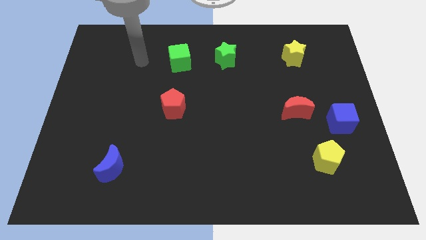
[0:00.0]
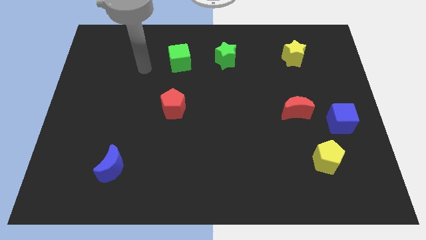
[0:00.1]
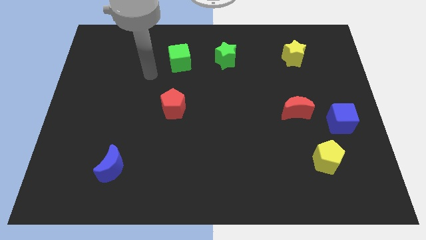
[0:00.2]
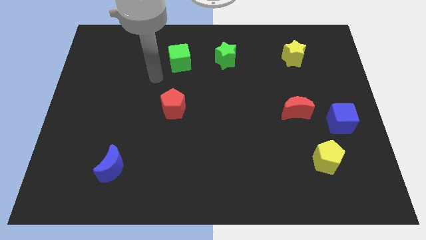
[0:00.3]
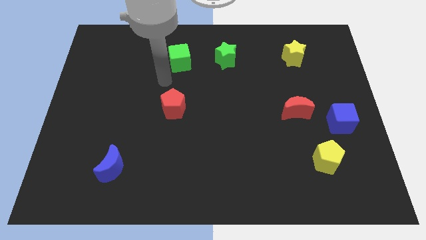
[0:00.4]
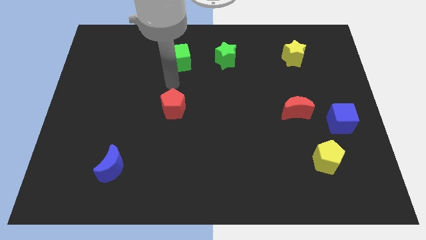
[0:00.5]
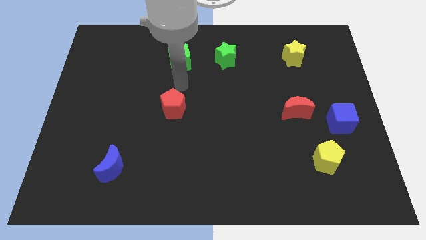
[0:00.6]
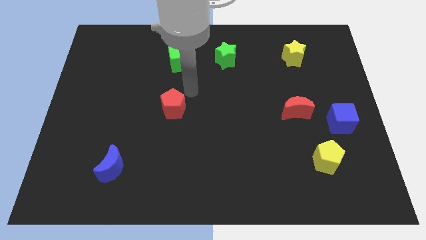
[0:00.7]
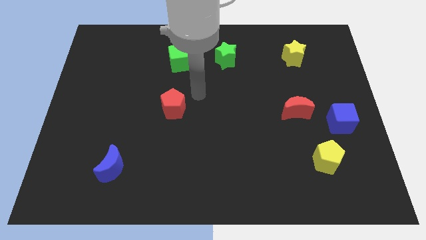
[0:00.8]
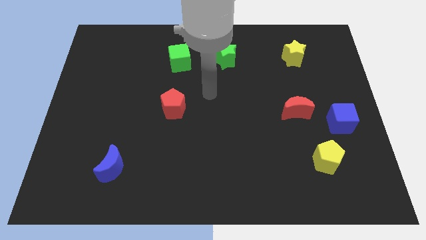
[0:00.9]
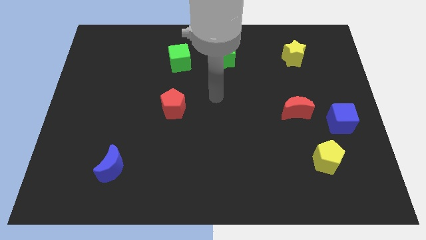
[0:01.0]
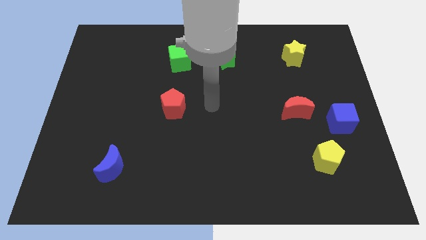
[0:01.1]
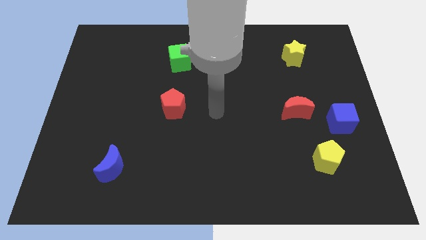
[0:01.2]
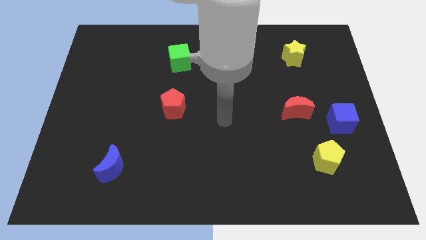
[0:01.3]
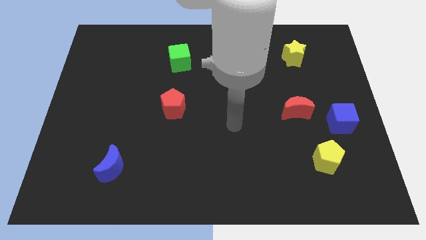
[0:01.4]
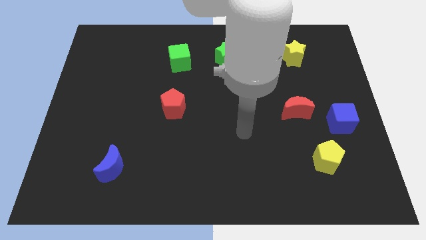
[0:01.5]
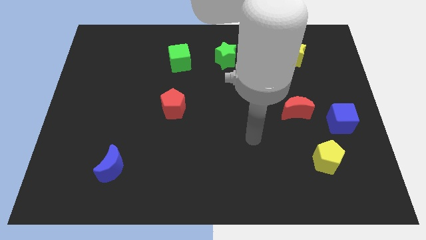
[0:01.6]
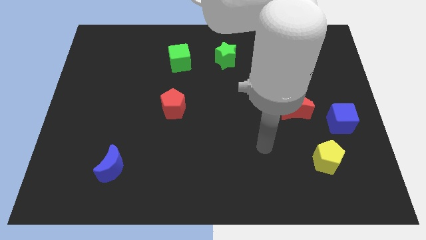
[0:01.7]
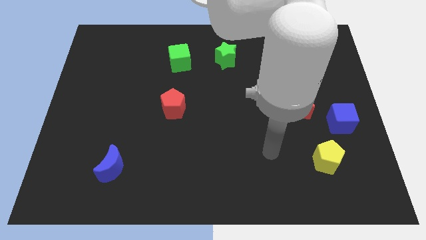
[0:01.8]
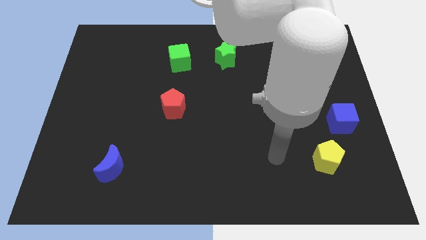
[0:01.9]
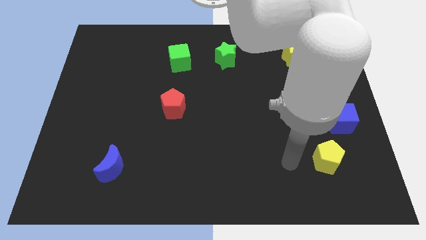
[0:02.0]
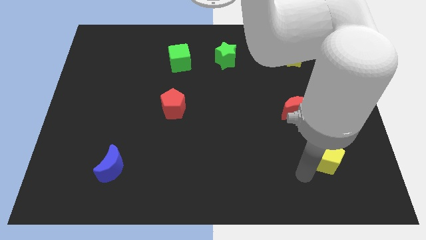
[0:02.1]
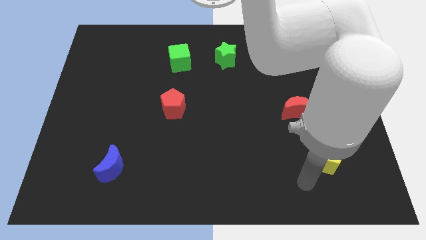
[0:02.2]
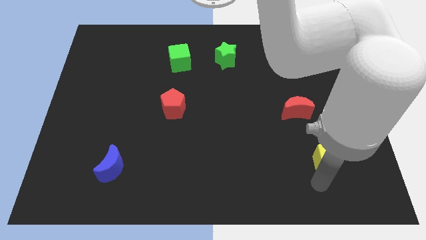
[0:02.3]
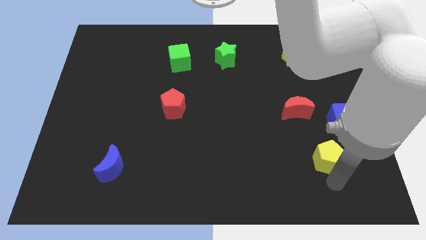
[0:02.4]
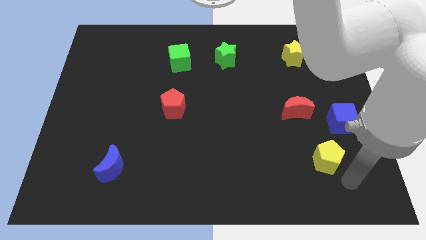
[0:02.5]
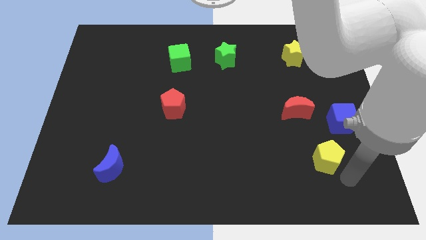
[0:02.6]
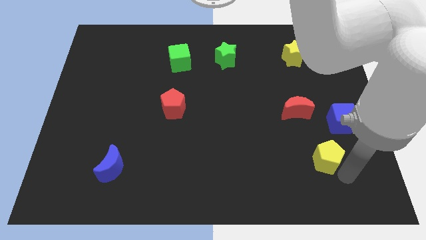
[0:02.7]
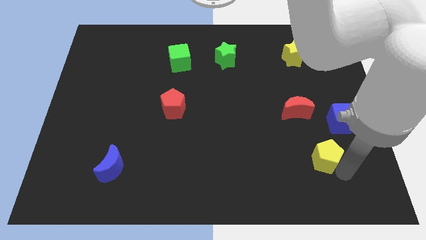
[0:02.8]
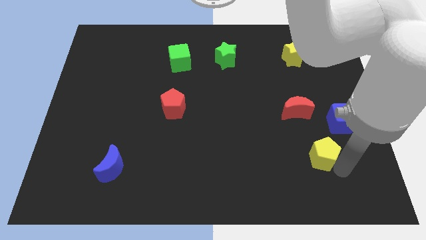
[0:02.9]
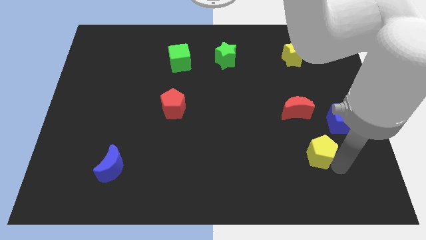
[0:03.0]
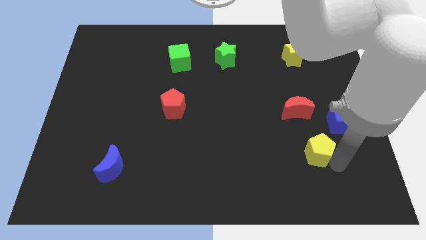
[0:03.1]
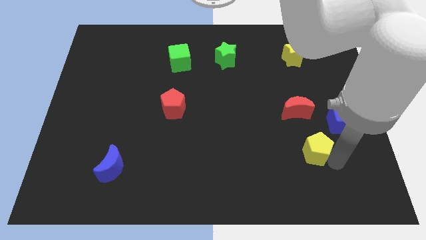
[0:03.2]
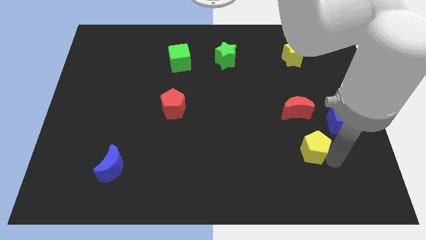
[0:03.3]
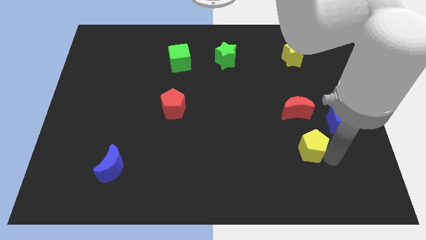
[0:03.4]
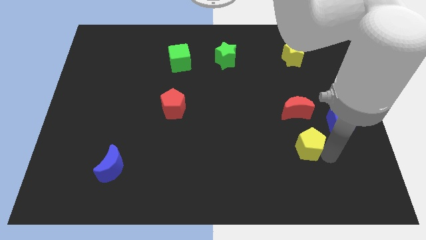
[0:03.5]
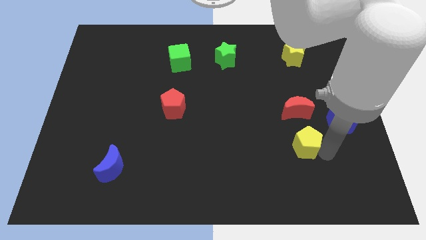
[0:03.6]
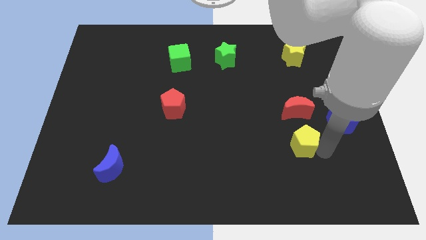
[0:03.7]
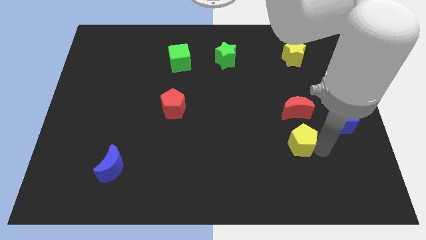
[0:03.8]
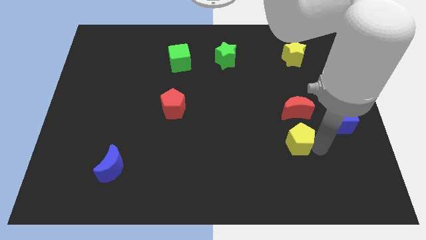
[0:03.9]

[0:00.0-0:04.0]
slide the yellow pentagon a little bit diagonally upwards and to the left

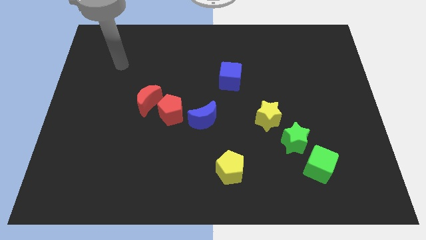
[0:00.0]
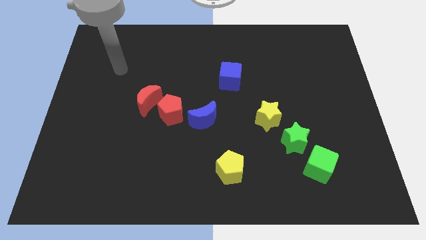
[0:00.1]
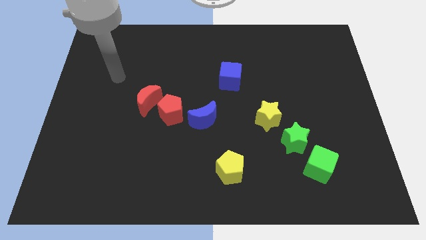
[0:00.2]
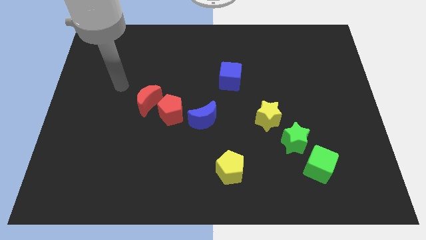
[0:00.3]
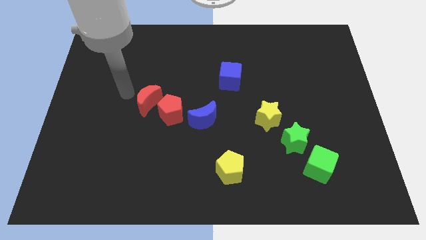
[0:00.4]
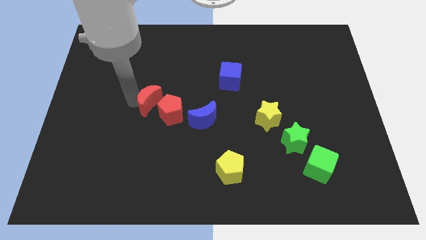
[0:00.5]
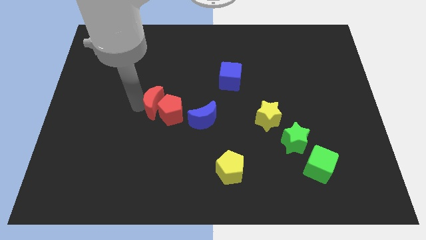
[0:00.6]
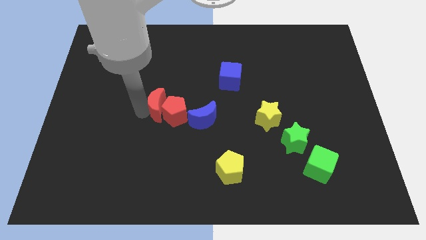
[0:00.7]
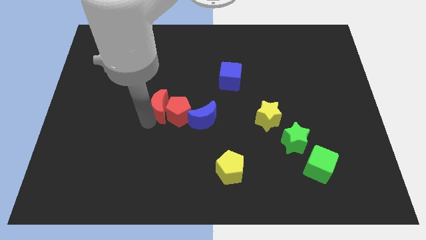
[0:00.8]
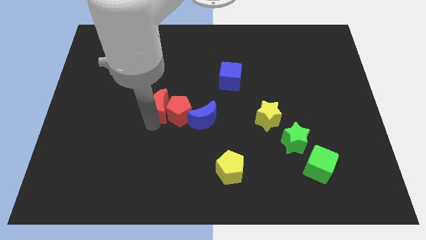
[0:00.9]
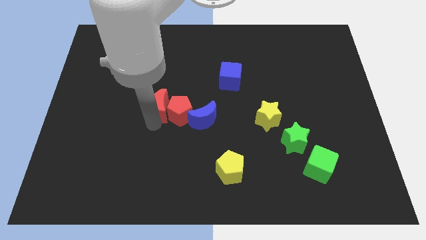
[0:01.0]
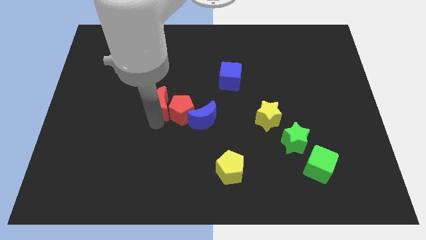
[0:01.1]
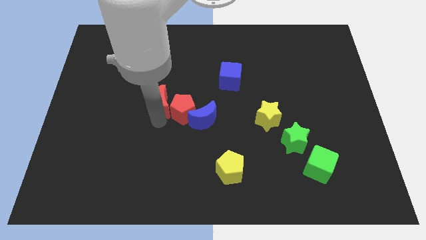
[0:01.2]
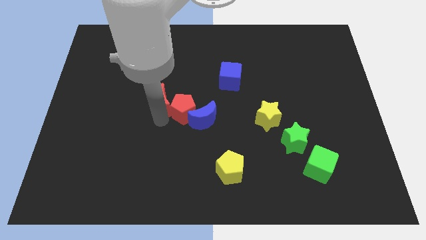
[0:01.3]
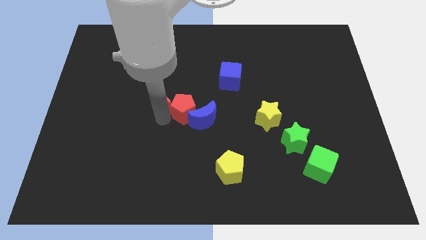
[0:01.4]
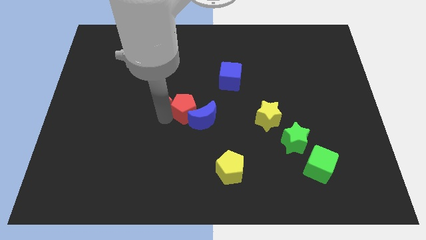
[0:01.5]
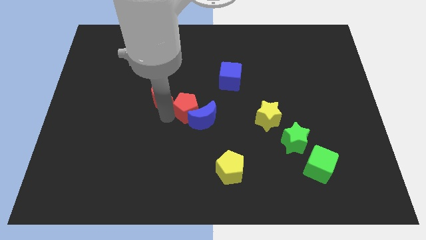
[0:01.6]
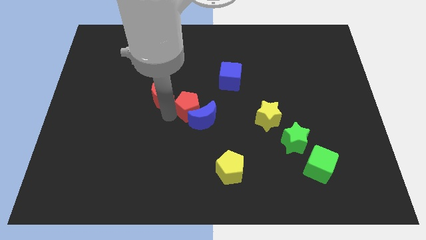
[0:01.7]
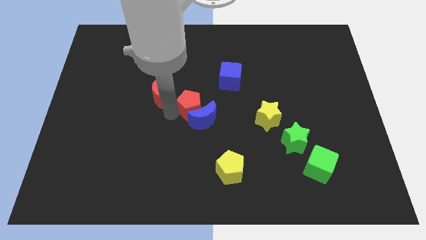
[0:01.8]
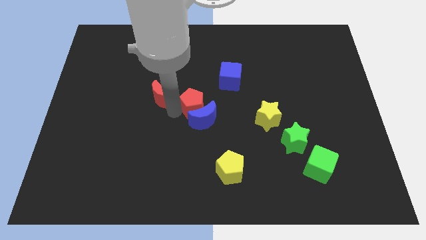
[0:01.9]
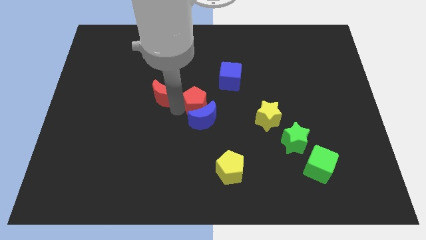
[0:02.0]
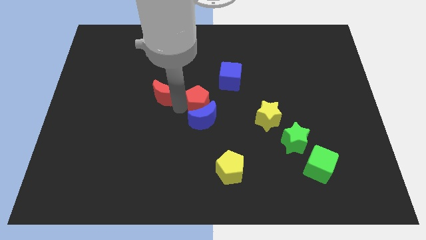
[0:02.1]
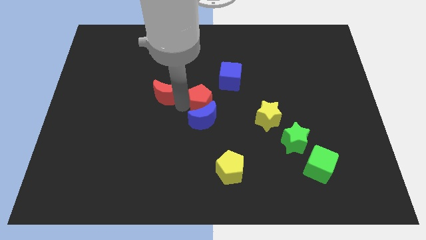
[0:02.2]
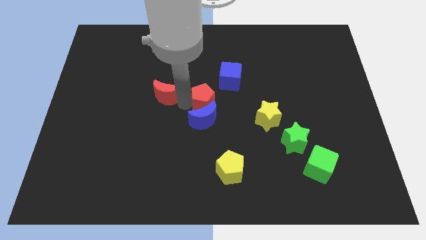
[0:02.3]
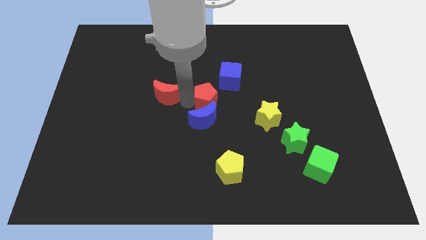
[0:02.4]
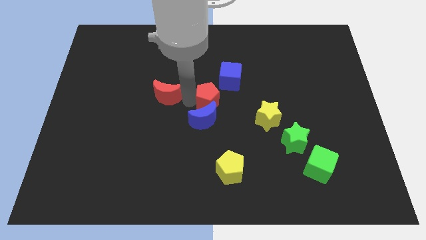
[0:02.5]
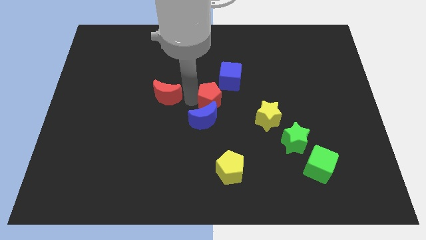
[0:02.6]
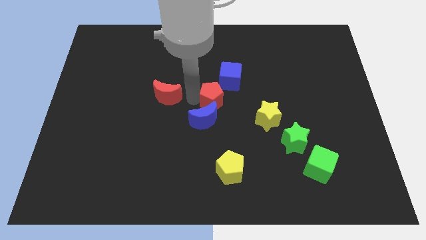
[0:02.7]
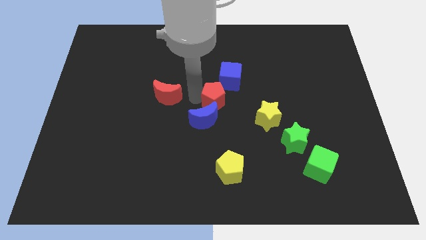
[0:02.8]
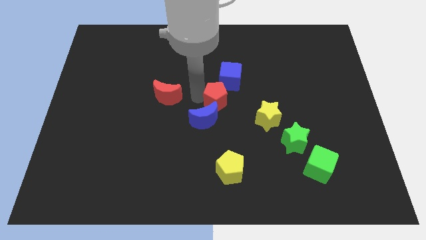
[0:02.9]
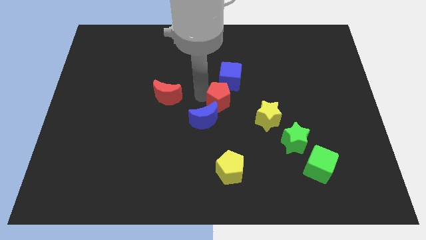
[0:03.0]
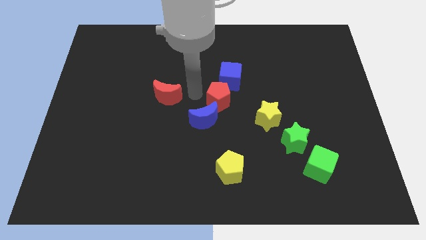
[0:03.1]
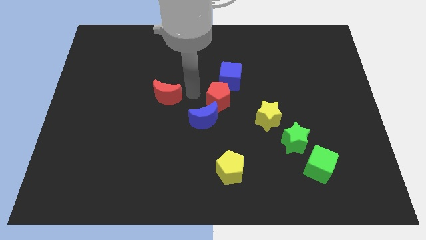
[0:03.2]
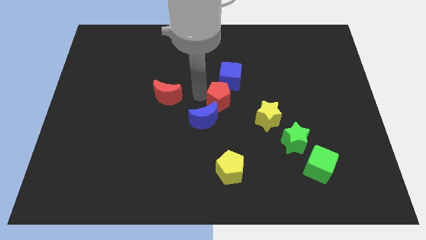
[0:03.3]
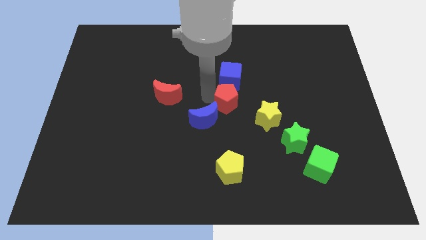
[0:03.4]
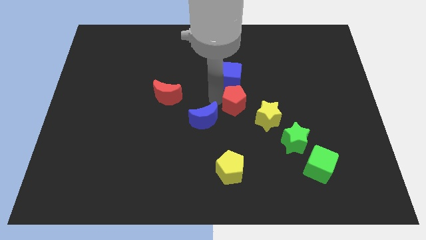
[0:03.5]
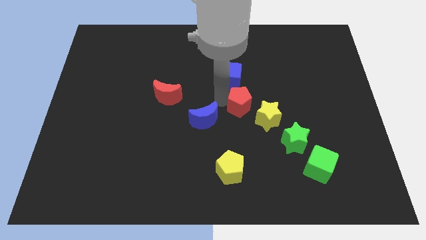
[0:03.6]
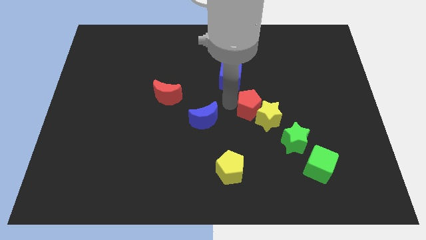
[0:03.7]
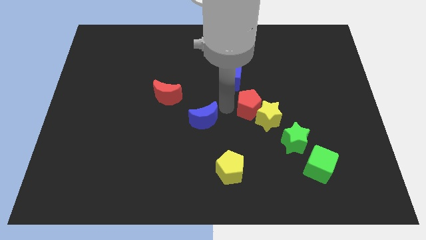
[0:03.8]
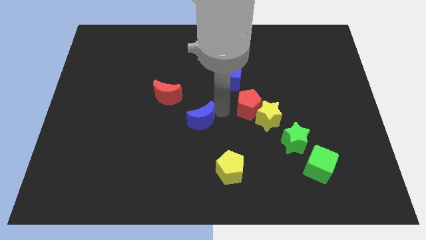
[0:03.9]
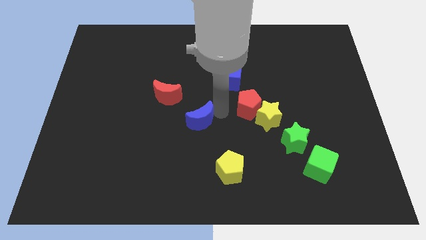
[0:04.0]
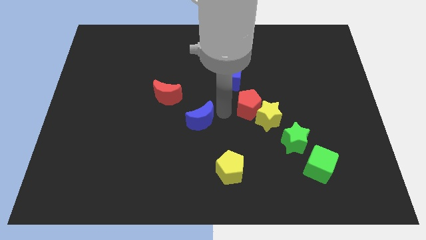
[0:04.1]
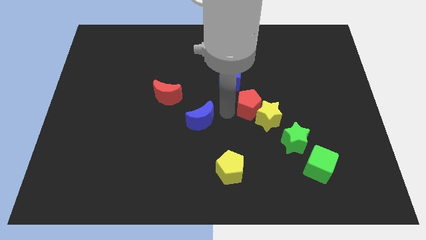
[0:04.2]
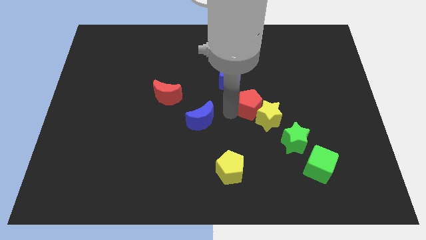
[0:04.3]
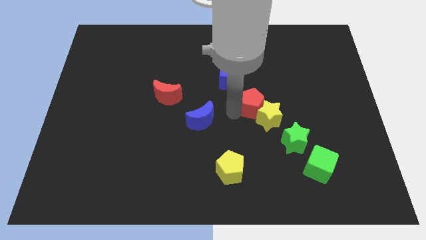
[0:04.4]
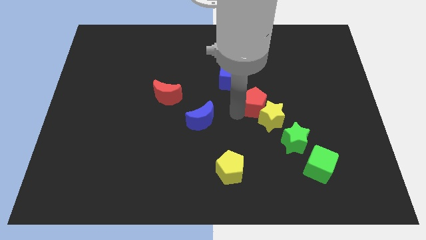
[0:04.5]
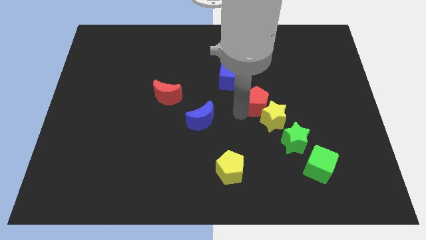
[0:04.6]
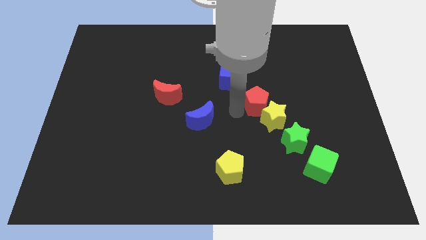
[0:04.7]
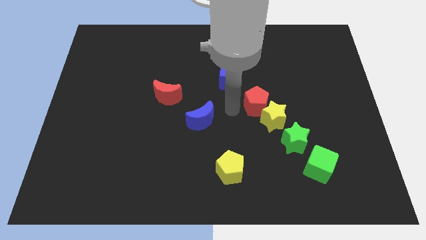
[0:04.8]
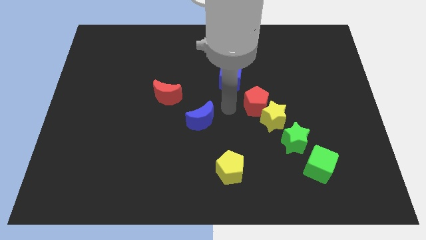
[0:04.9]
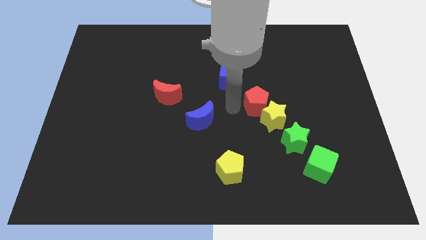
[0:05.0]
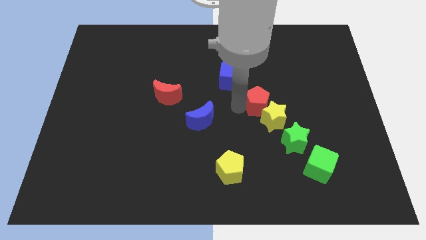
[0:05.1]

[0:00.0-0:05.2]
push the red pentagon to the right
